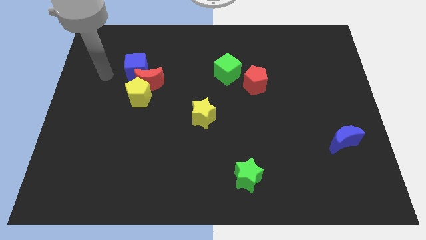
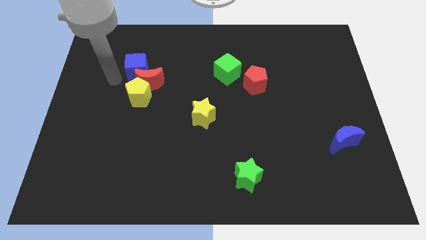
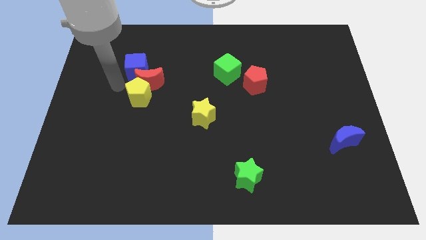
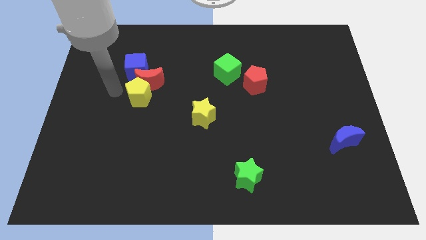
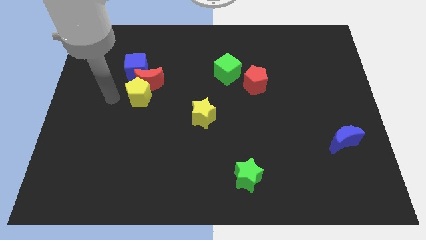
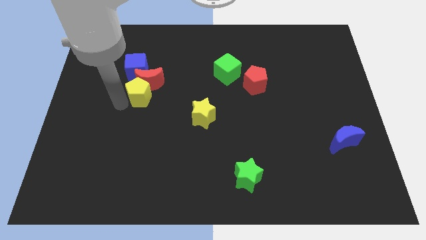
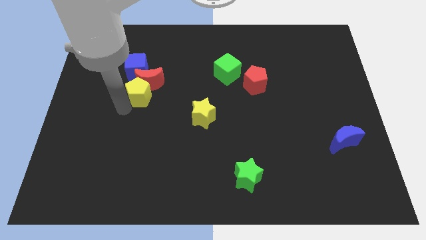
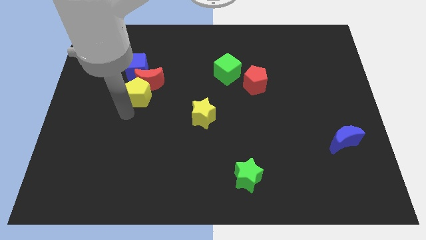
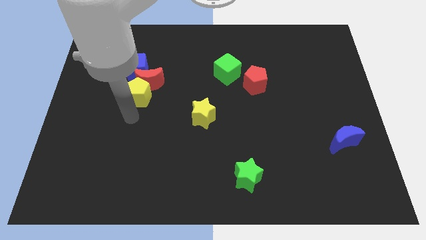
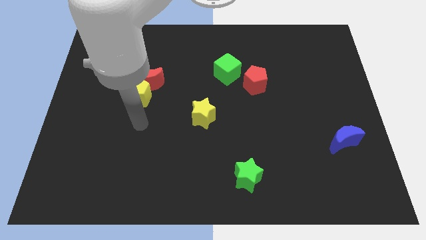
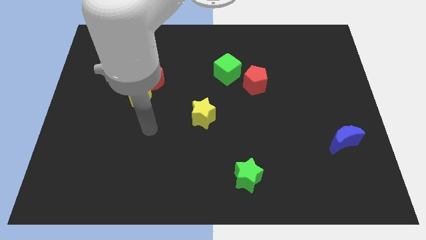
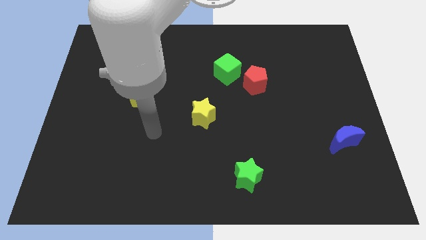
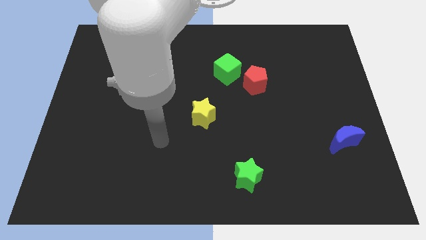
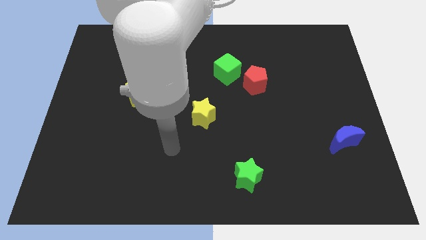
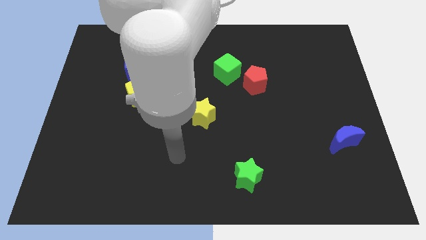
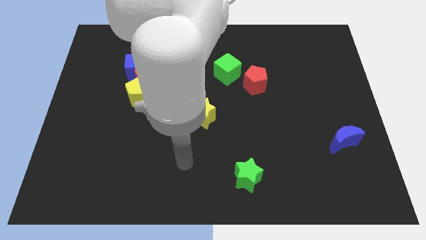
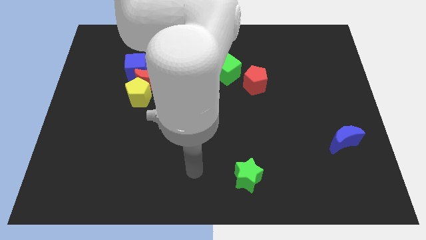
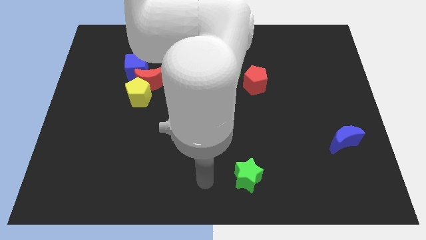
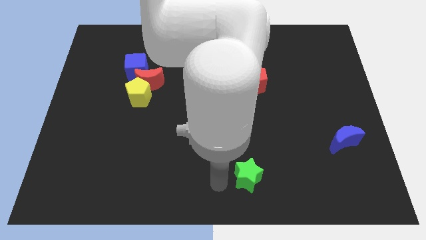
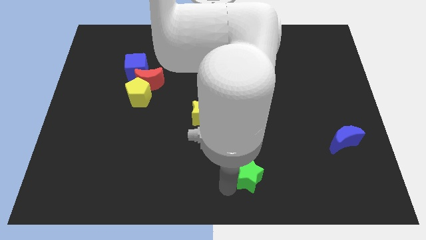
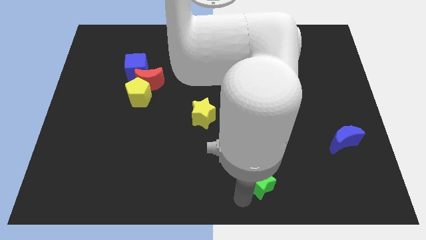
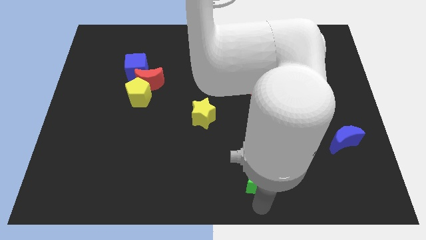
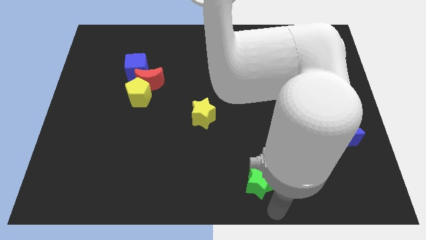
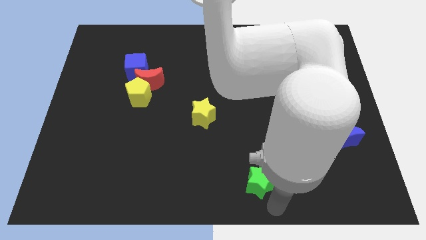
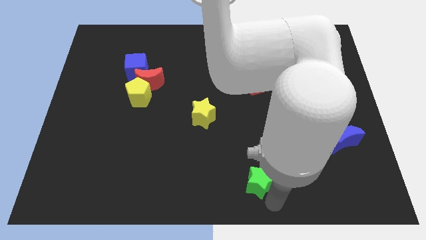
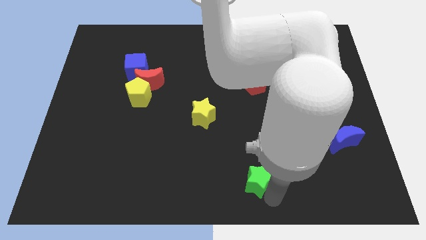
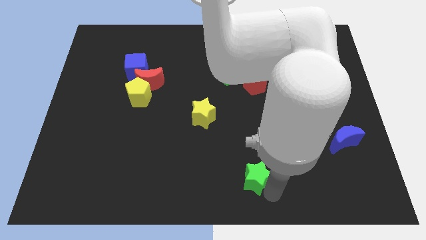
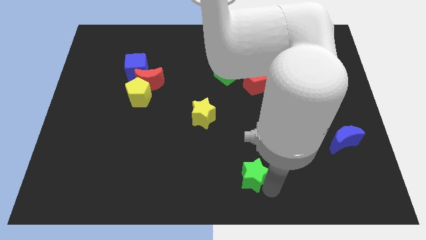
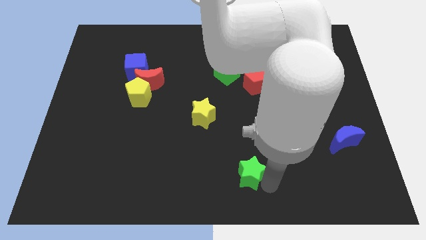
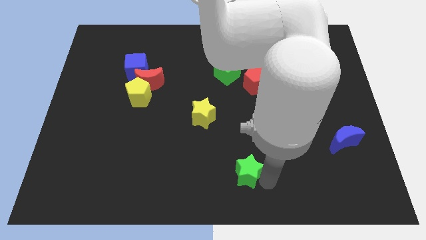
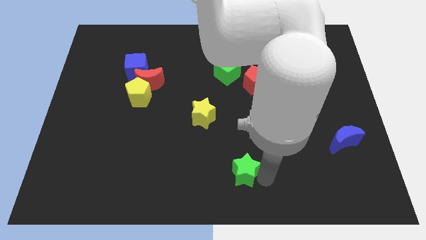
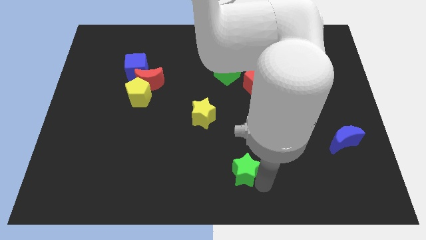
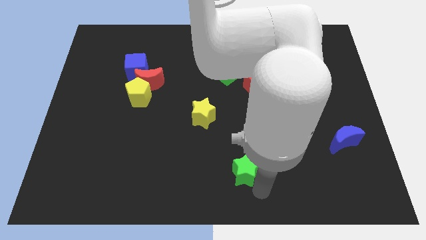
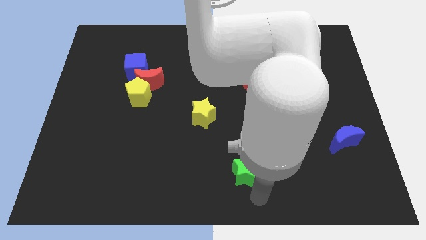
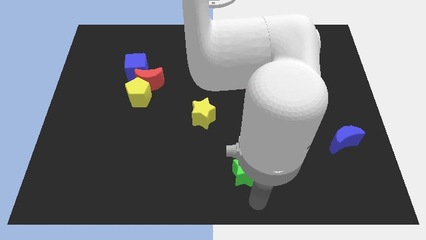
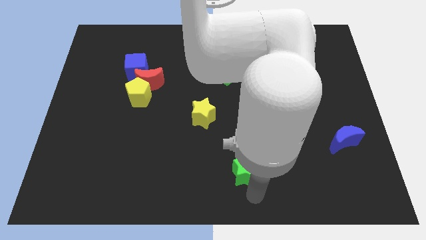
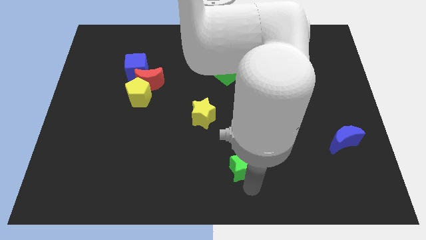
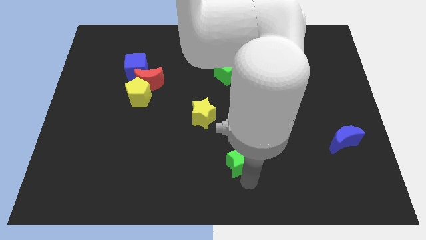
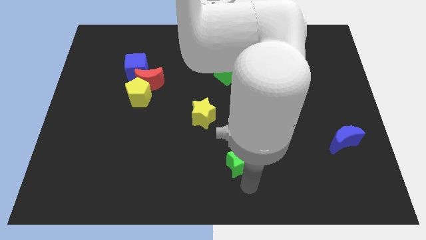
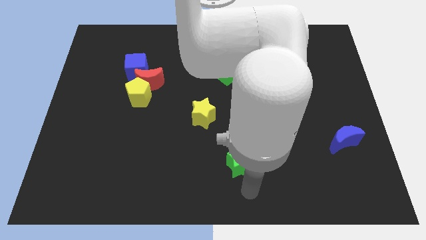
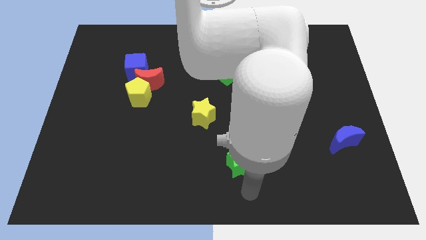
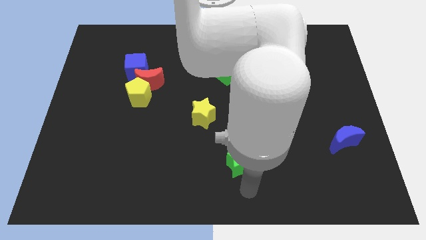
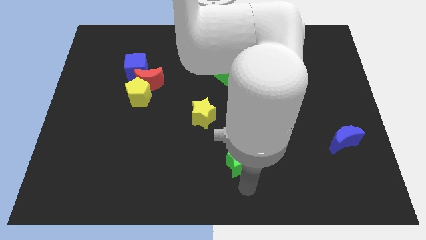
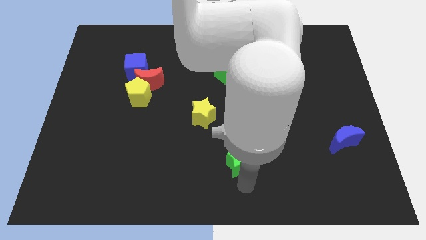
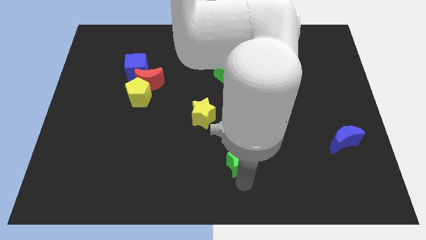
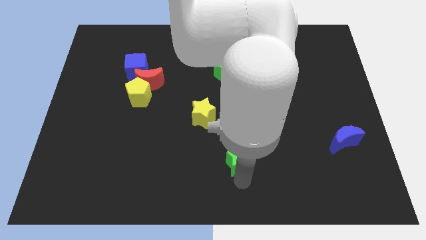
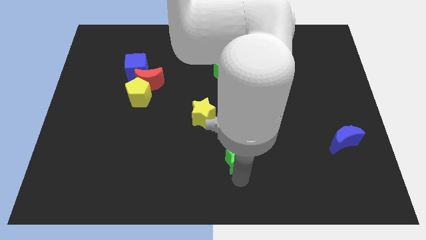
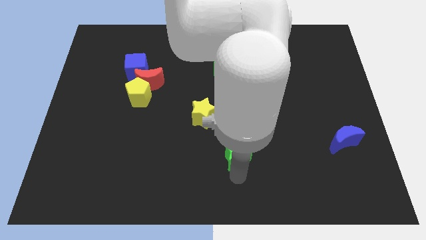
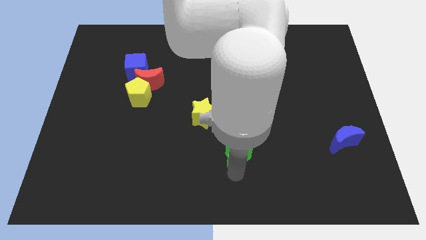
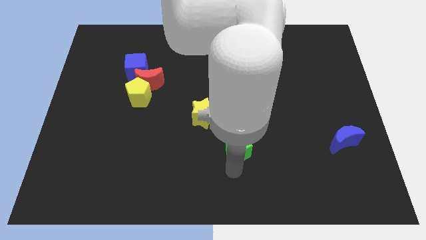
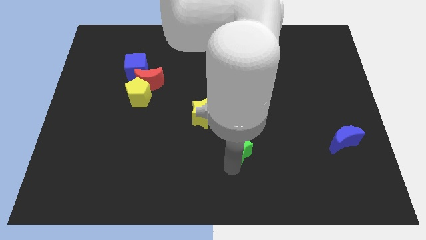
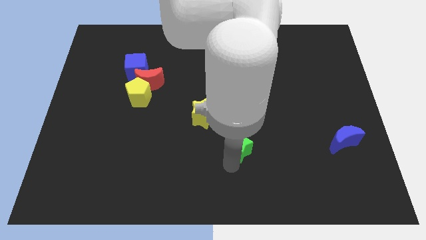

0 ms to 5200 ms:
slightly slide the green star up

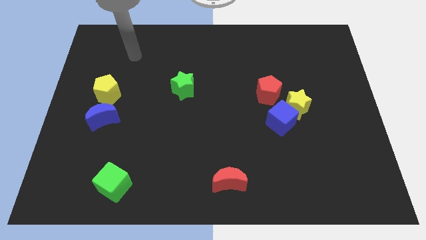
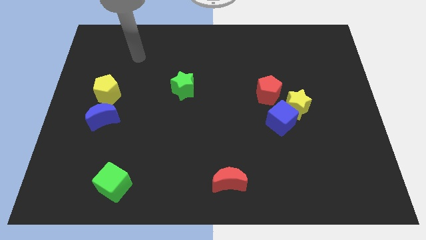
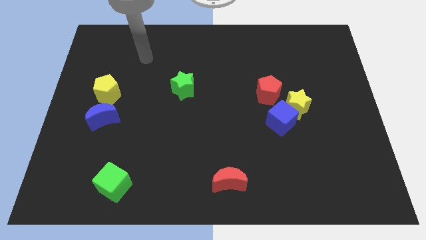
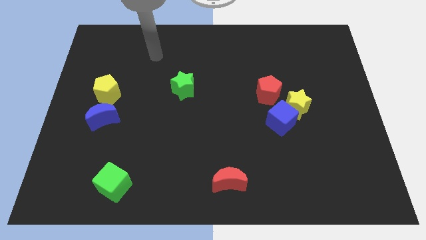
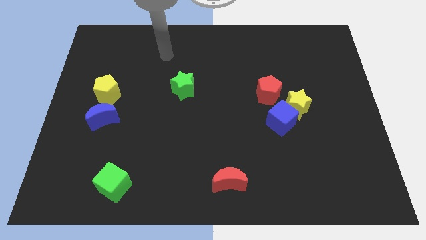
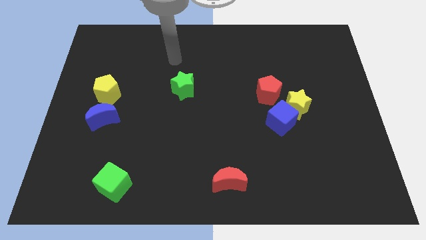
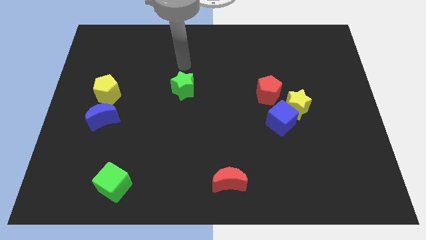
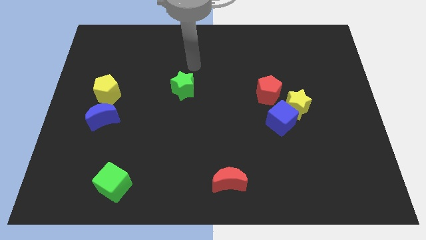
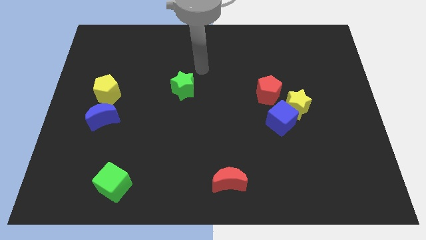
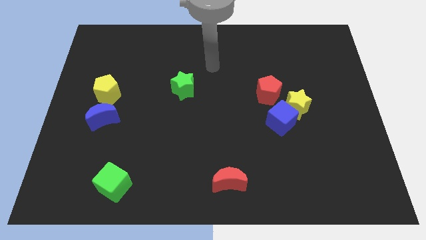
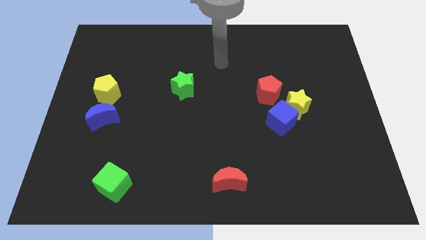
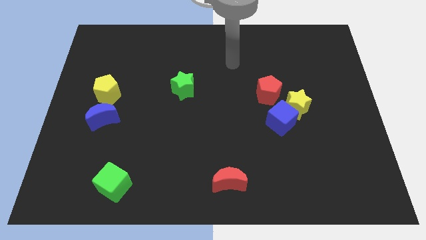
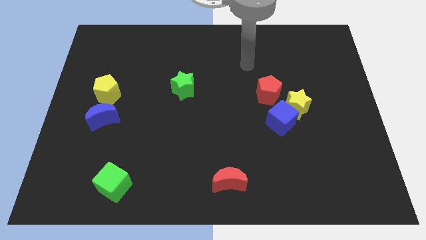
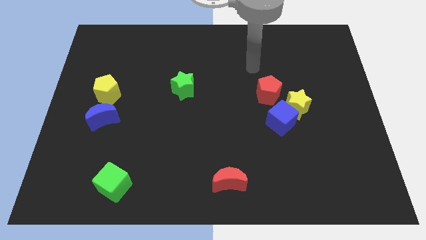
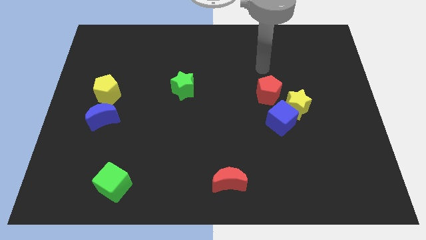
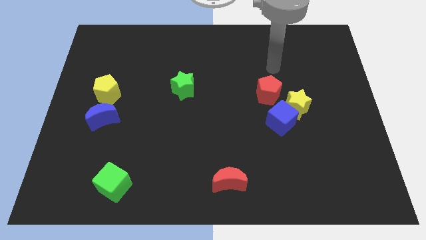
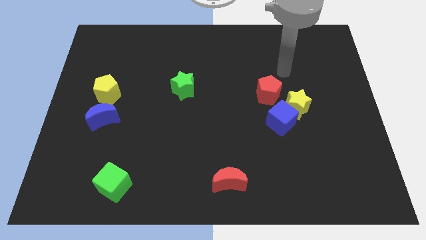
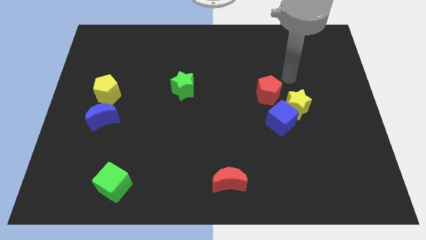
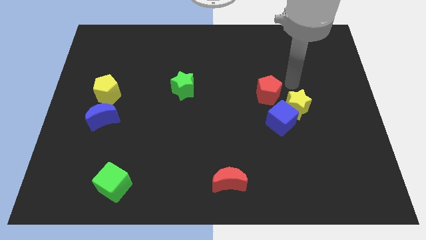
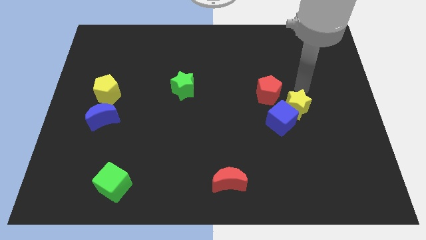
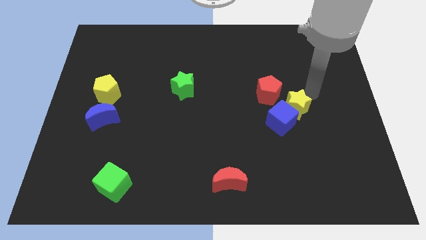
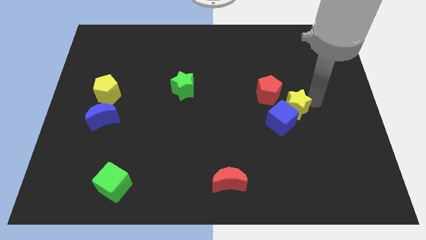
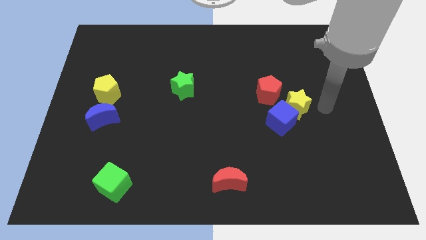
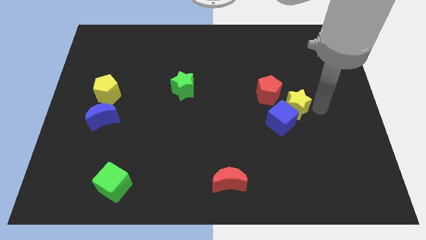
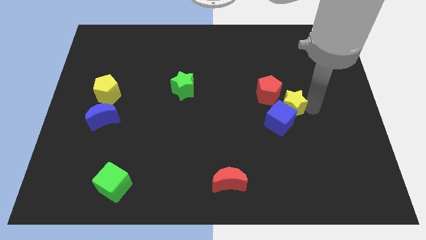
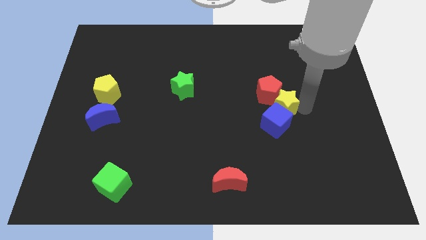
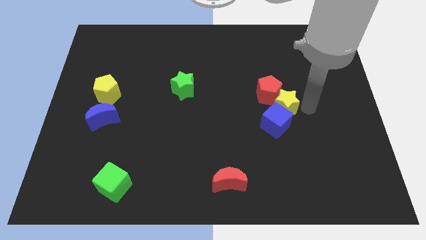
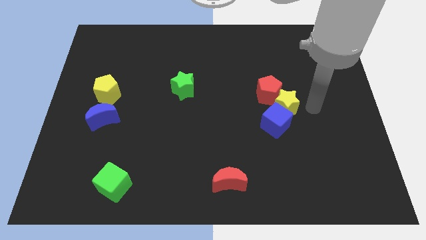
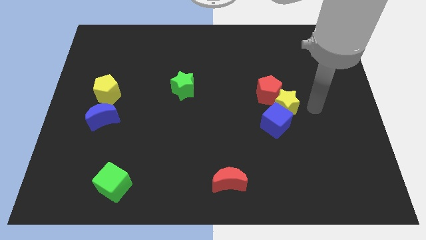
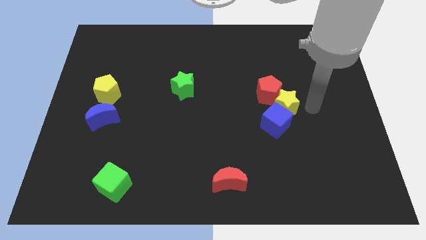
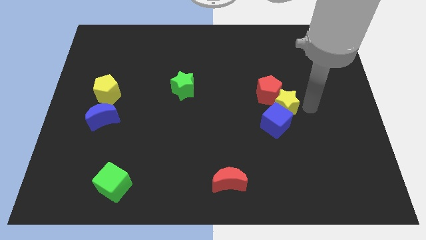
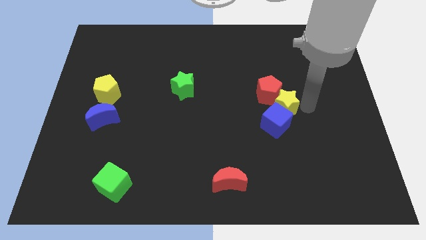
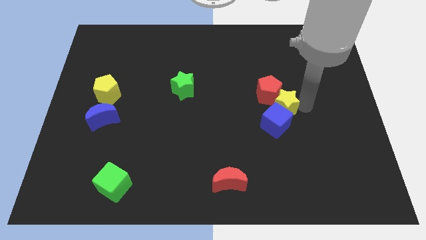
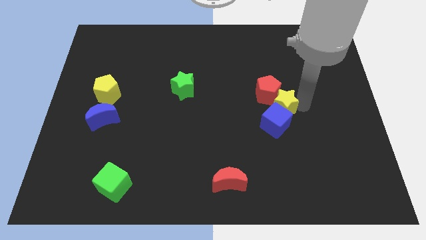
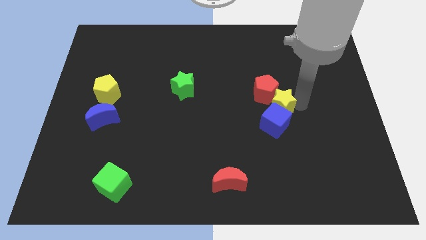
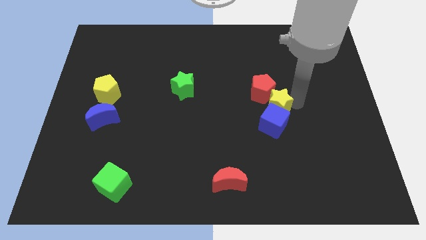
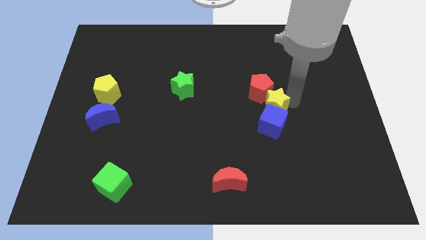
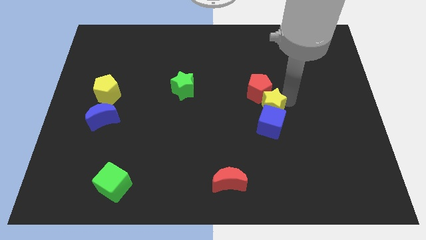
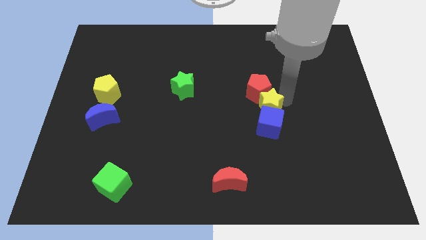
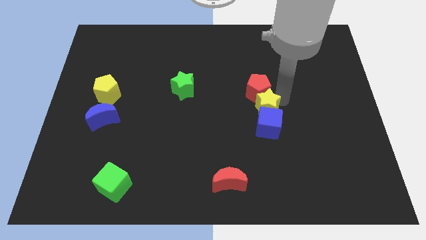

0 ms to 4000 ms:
slide the yellow star left somewhat
